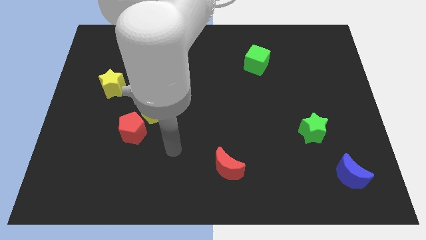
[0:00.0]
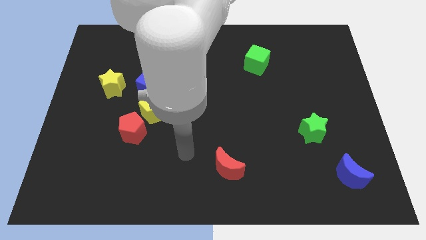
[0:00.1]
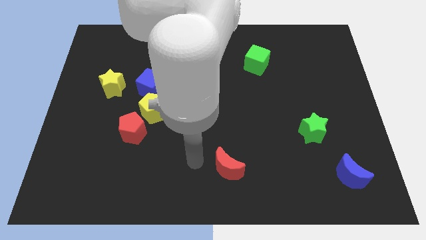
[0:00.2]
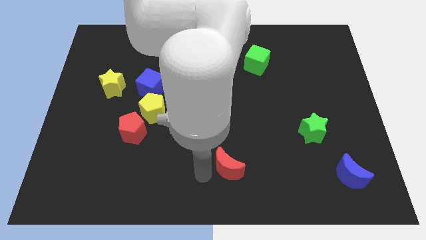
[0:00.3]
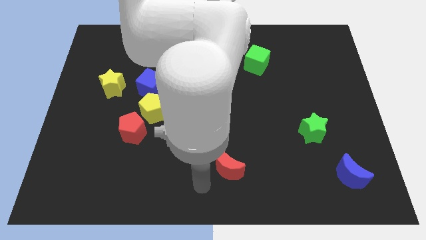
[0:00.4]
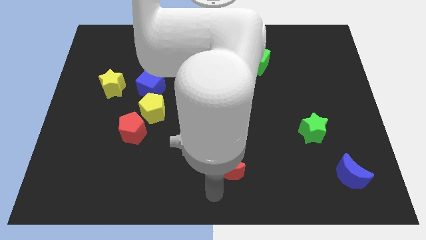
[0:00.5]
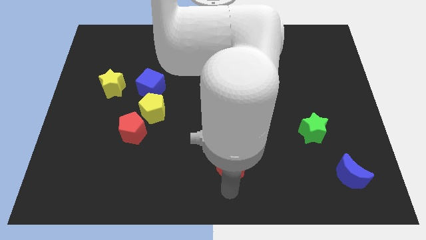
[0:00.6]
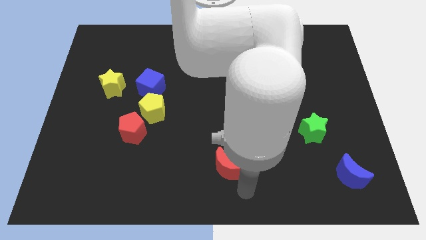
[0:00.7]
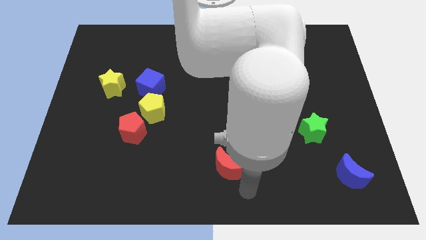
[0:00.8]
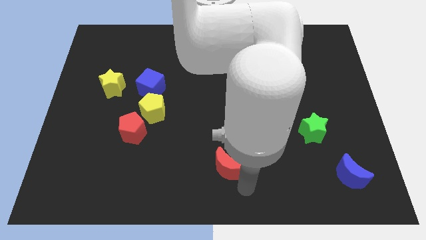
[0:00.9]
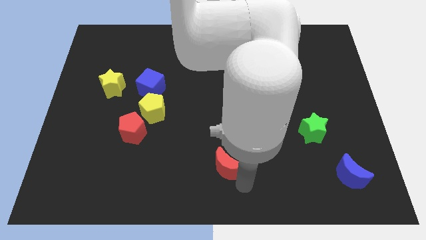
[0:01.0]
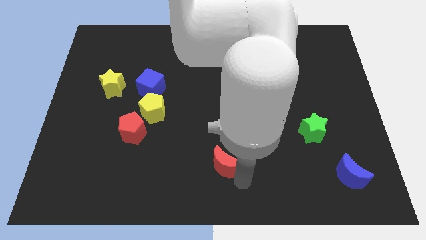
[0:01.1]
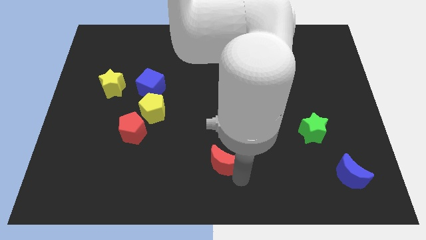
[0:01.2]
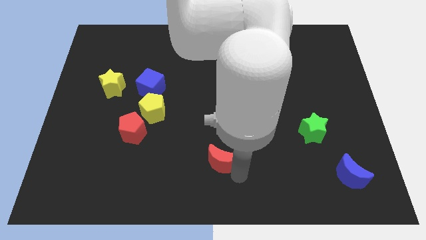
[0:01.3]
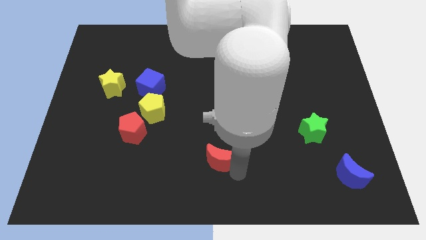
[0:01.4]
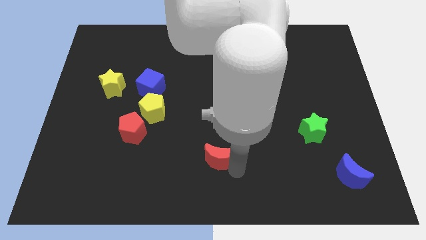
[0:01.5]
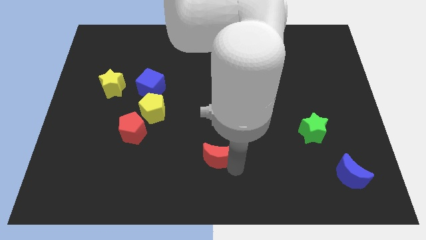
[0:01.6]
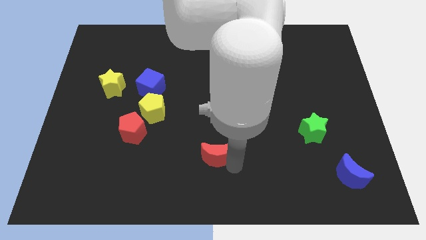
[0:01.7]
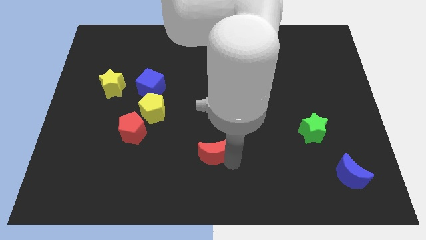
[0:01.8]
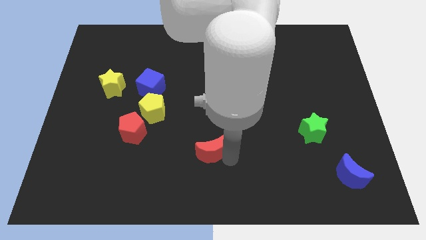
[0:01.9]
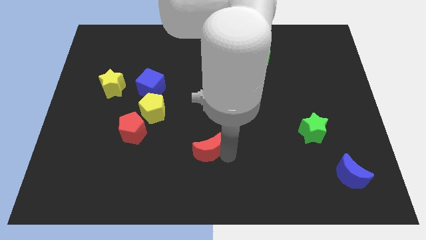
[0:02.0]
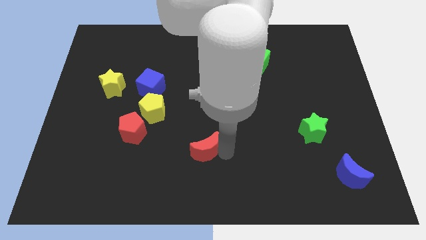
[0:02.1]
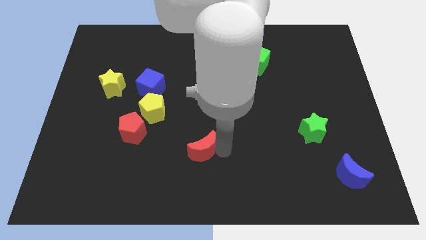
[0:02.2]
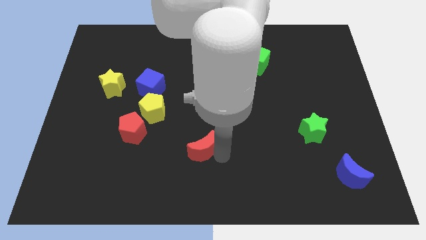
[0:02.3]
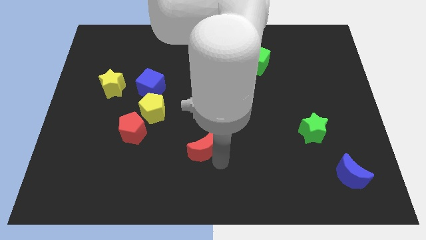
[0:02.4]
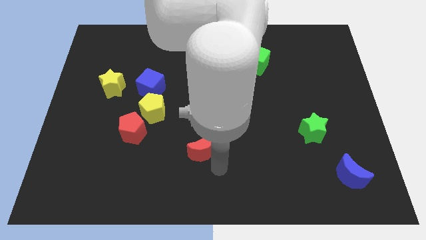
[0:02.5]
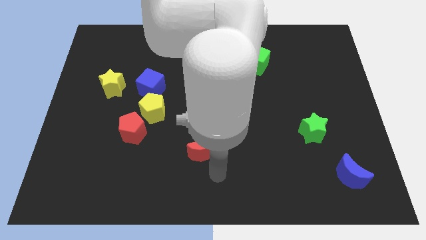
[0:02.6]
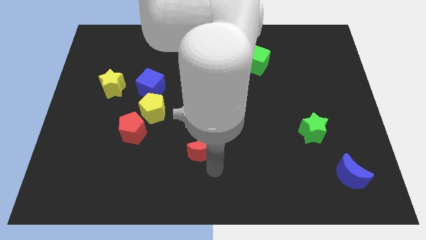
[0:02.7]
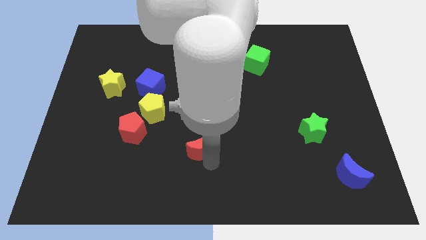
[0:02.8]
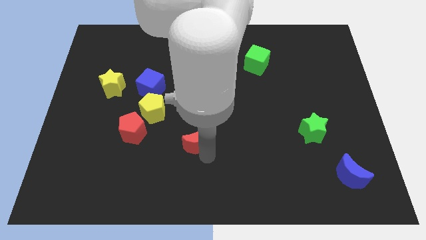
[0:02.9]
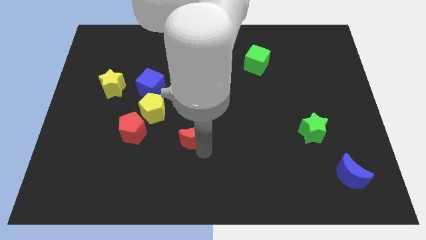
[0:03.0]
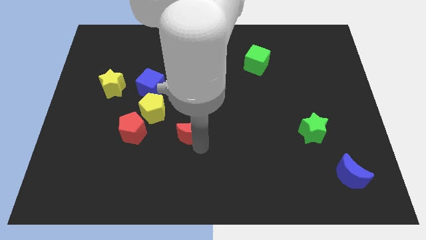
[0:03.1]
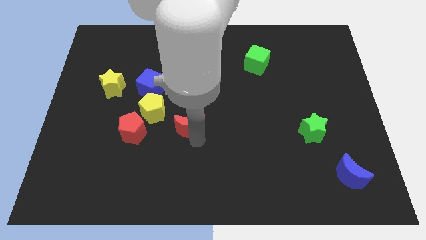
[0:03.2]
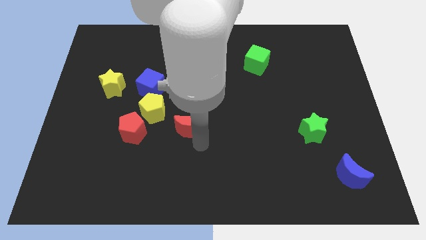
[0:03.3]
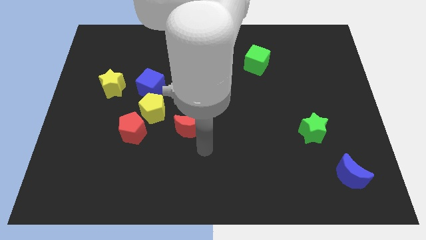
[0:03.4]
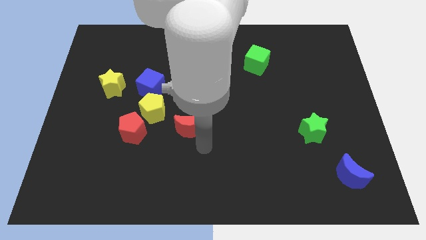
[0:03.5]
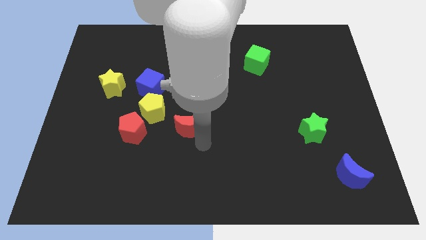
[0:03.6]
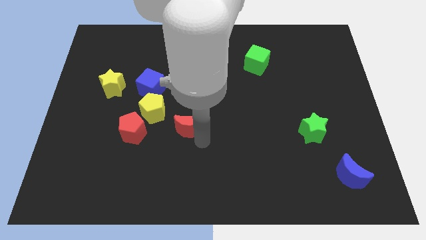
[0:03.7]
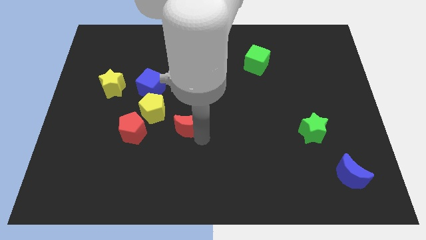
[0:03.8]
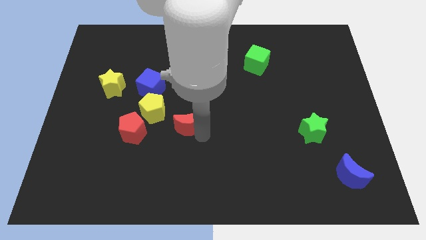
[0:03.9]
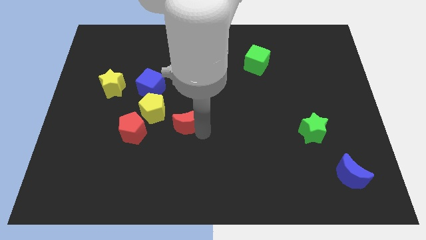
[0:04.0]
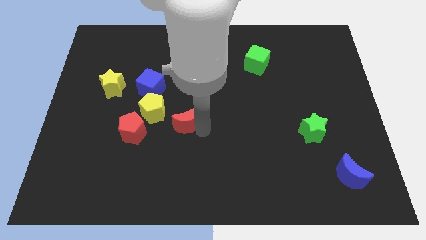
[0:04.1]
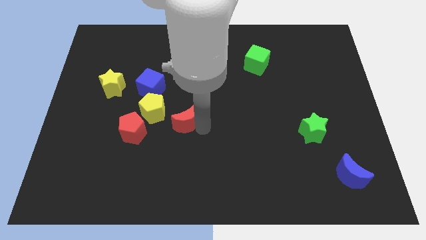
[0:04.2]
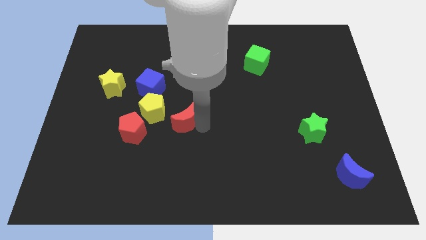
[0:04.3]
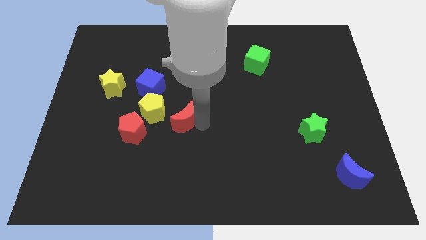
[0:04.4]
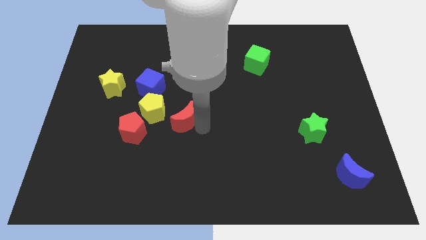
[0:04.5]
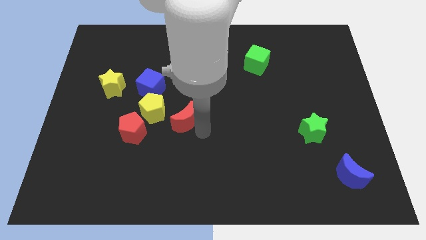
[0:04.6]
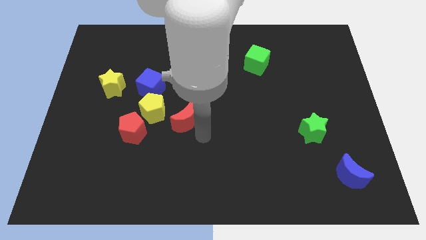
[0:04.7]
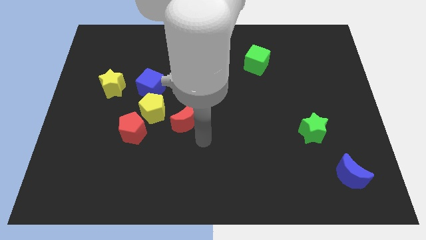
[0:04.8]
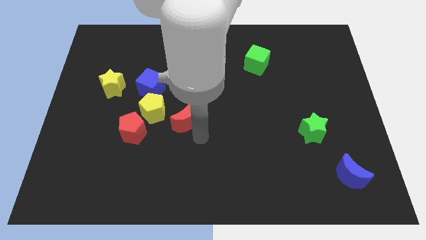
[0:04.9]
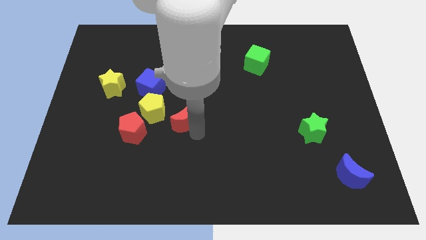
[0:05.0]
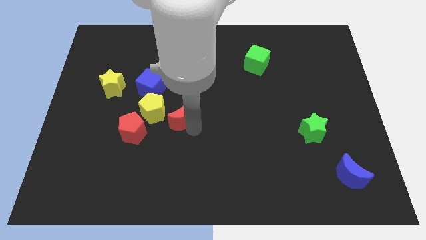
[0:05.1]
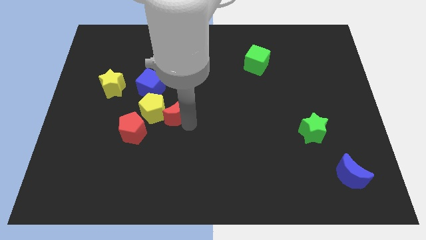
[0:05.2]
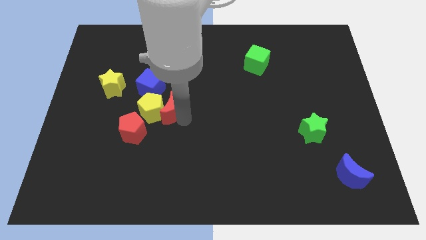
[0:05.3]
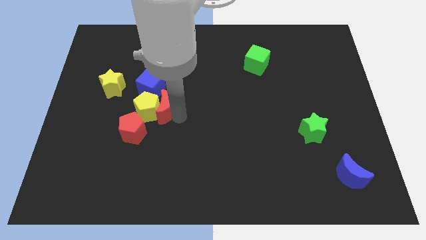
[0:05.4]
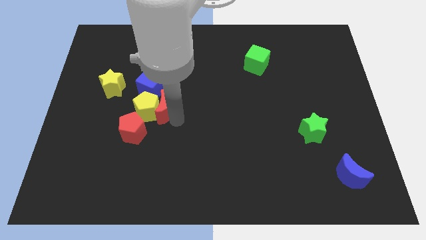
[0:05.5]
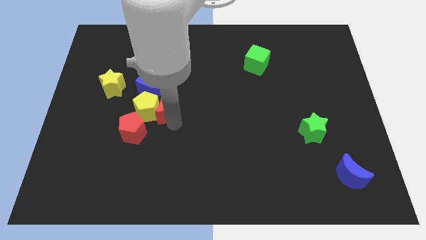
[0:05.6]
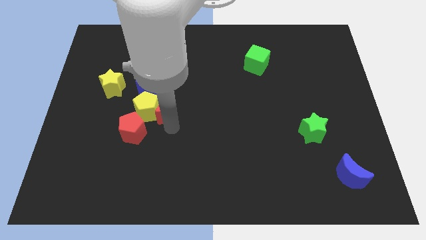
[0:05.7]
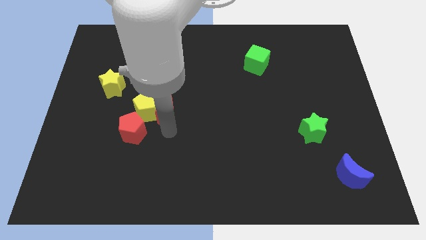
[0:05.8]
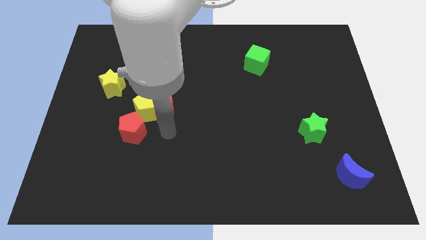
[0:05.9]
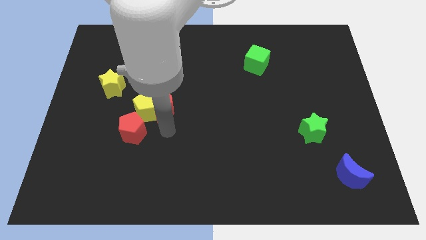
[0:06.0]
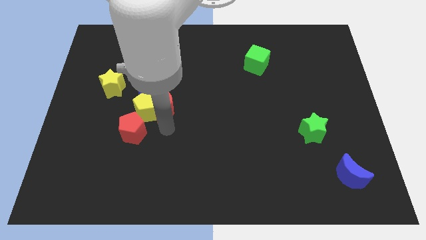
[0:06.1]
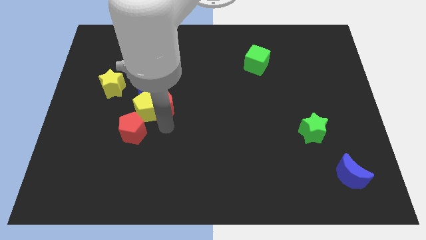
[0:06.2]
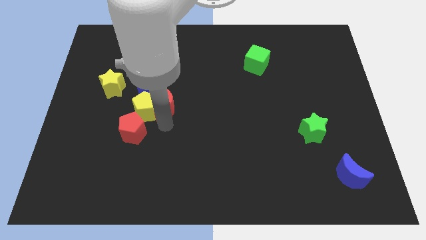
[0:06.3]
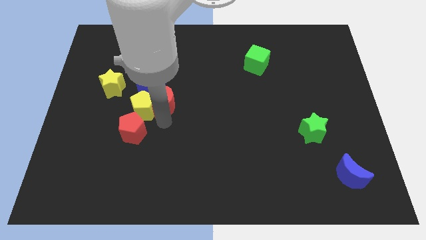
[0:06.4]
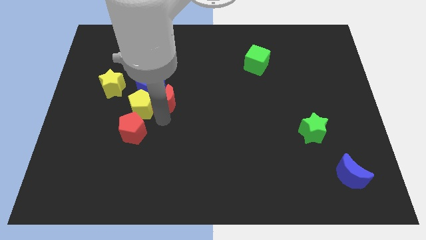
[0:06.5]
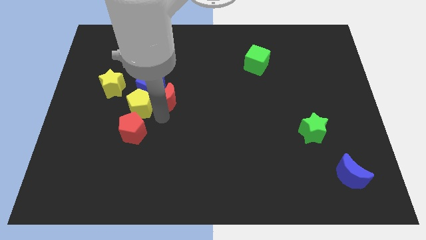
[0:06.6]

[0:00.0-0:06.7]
move the red moon to the blue cube

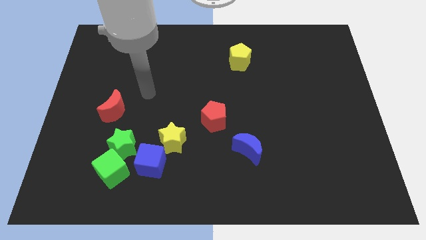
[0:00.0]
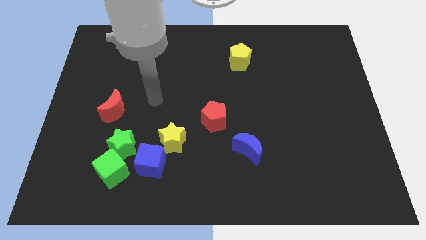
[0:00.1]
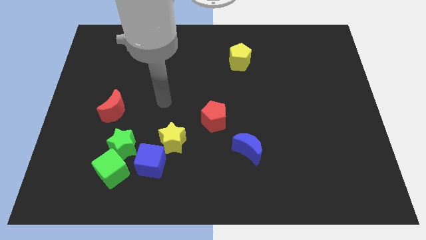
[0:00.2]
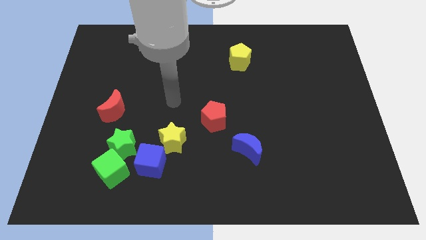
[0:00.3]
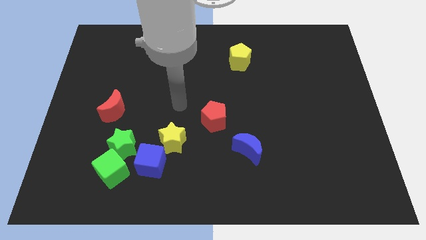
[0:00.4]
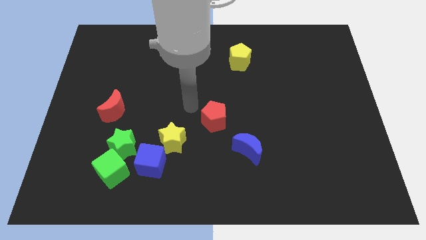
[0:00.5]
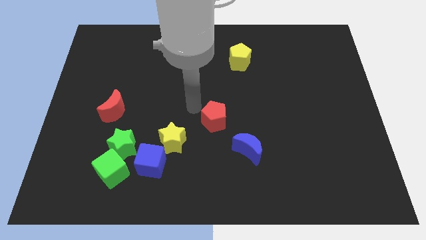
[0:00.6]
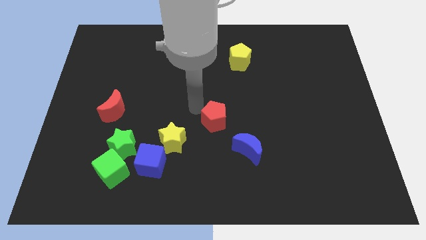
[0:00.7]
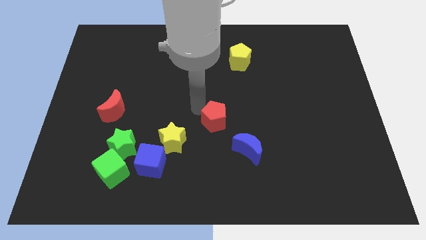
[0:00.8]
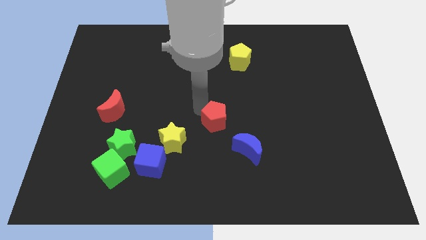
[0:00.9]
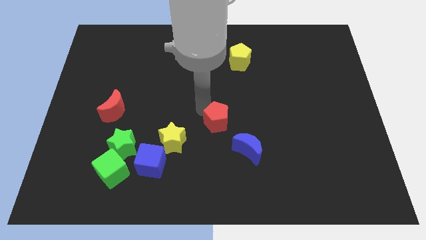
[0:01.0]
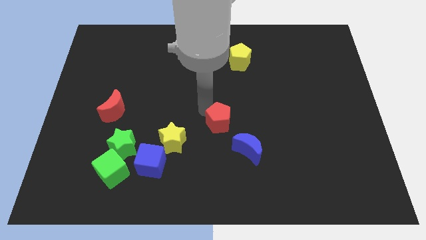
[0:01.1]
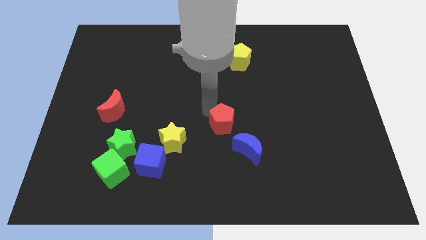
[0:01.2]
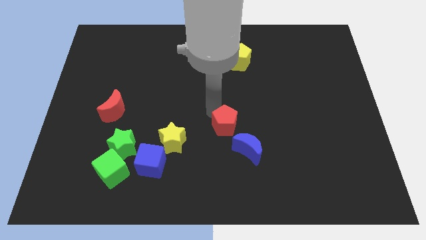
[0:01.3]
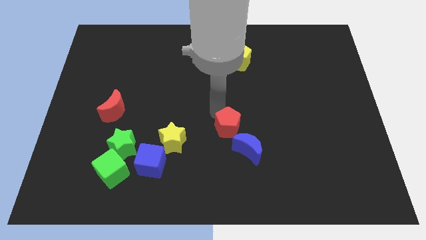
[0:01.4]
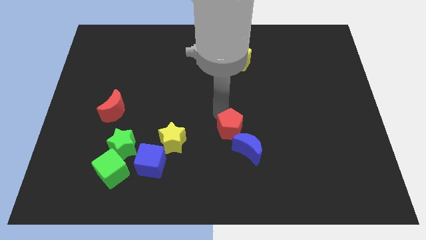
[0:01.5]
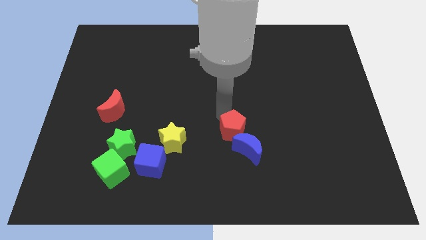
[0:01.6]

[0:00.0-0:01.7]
slide the red pentagon towards the blue moon
